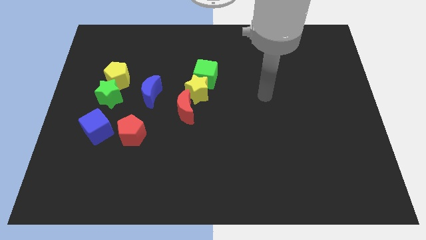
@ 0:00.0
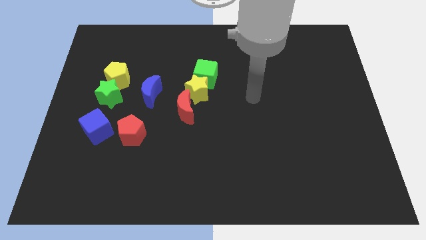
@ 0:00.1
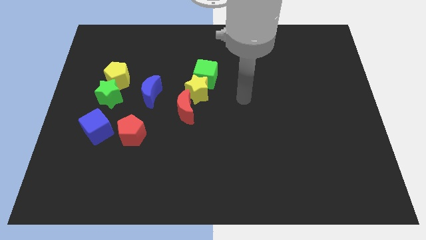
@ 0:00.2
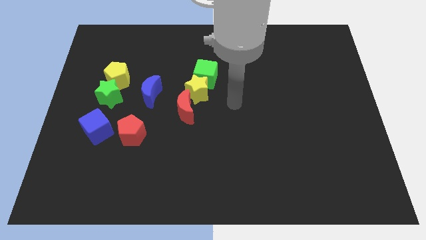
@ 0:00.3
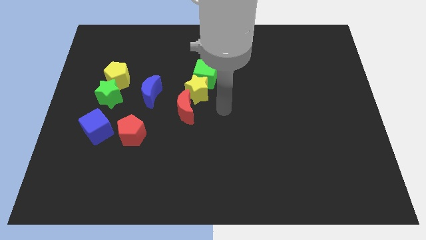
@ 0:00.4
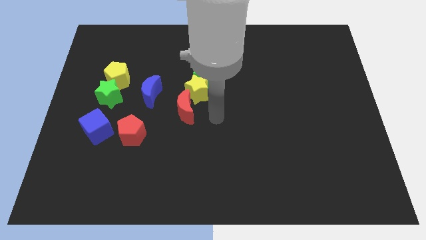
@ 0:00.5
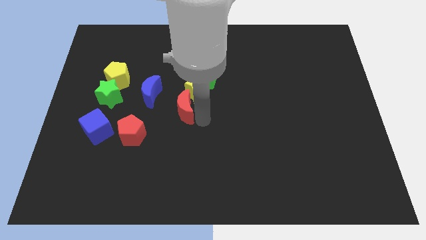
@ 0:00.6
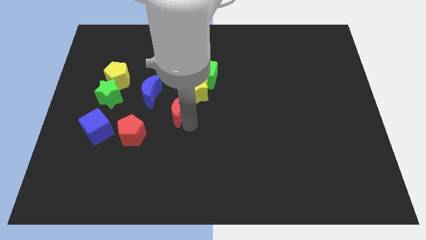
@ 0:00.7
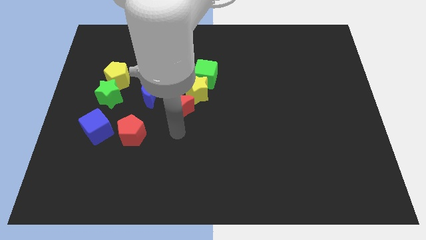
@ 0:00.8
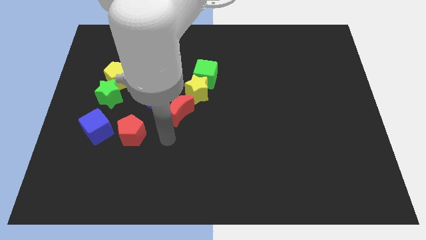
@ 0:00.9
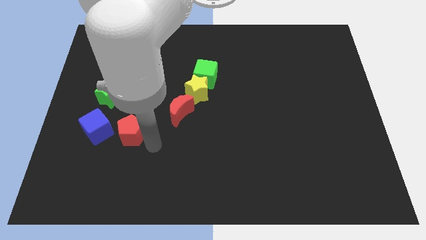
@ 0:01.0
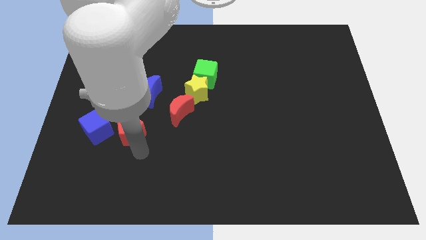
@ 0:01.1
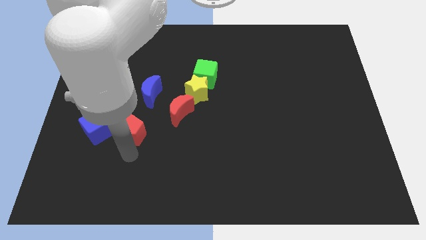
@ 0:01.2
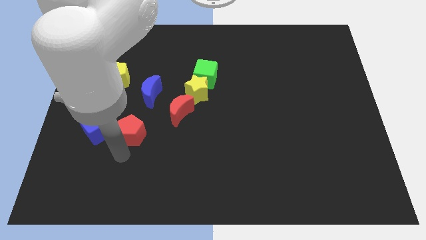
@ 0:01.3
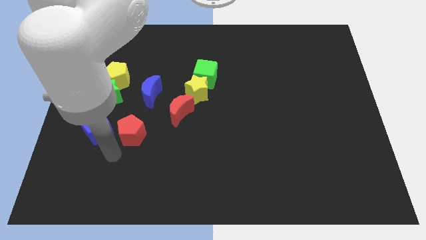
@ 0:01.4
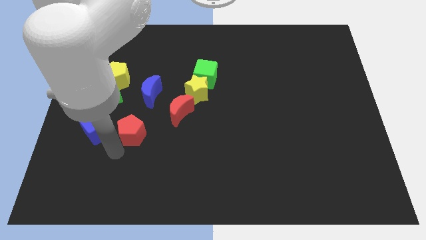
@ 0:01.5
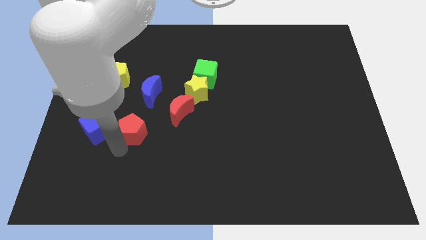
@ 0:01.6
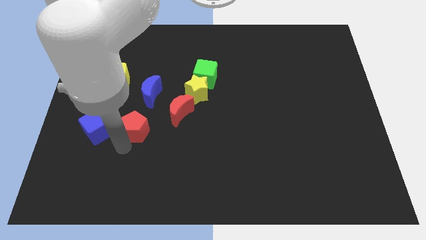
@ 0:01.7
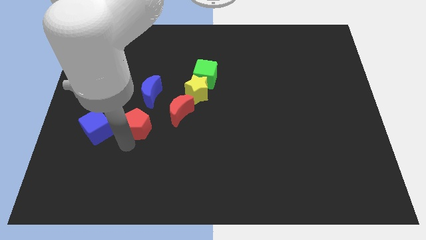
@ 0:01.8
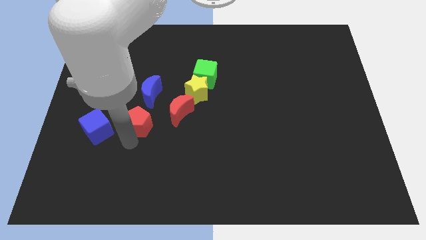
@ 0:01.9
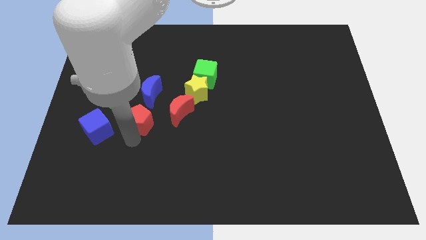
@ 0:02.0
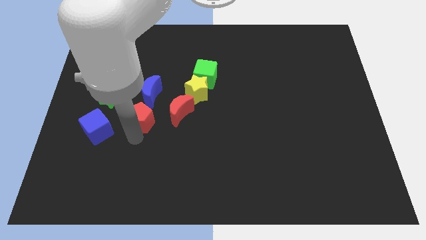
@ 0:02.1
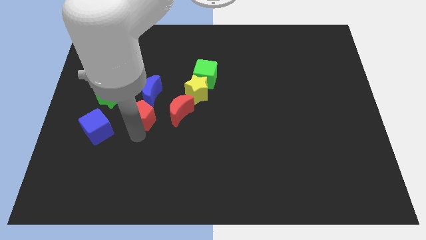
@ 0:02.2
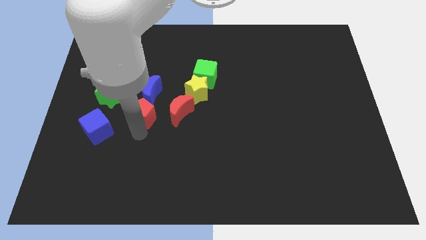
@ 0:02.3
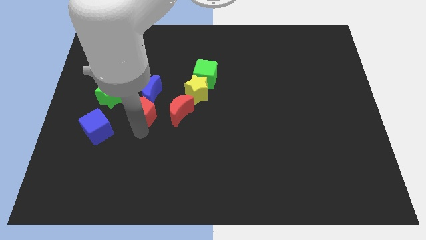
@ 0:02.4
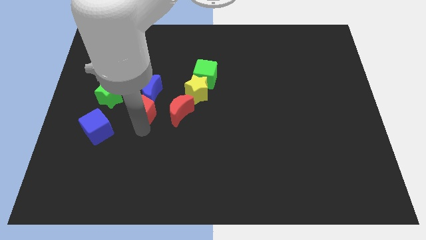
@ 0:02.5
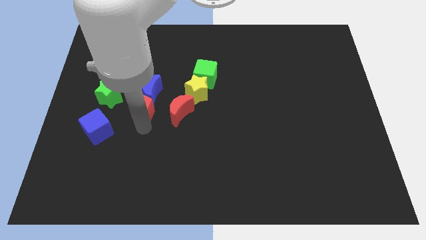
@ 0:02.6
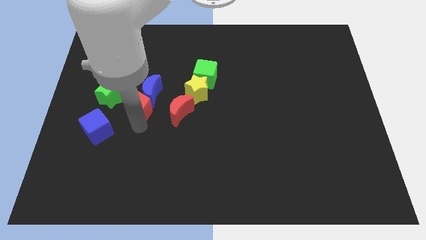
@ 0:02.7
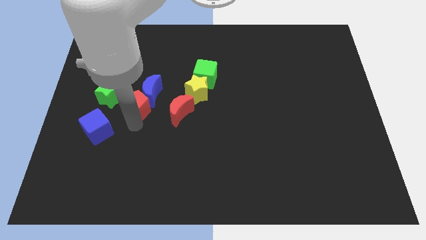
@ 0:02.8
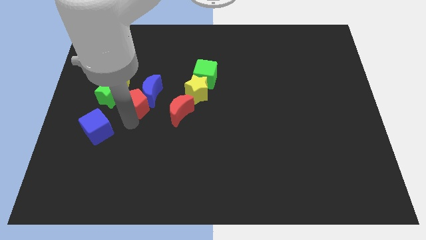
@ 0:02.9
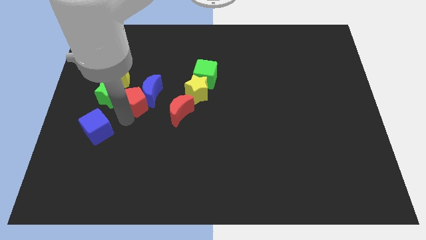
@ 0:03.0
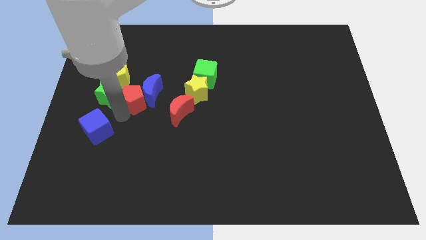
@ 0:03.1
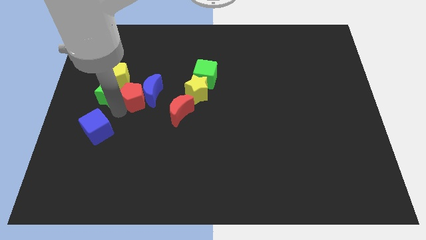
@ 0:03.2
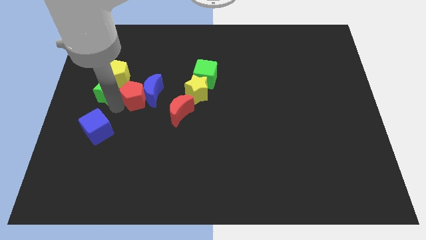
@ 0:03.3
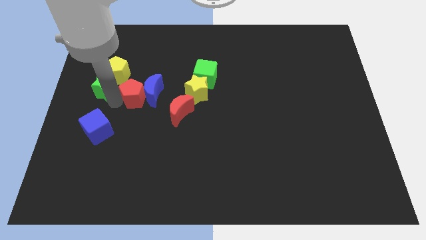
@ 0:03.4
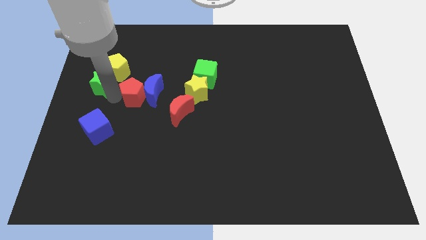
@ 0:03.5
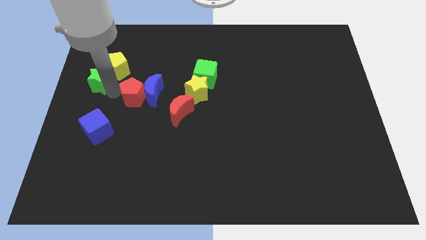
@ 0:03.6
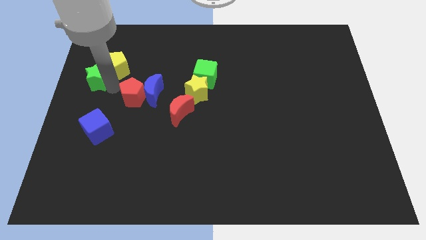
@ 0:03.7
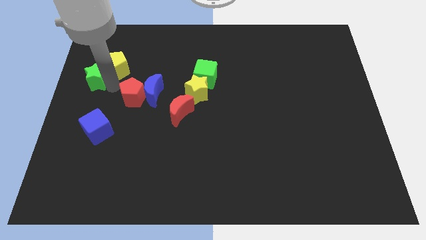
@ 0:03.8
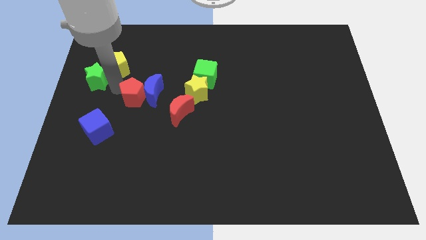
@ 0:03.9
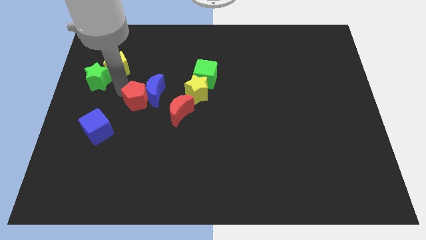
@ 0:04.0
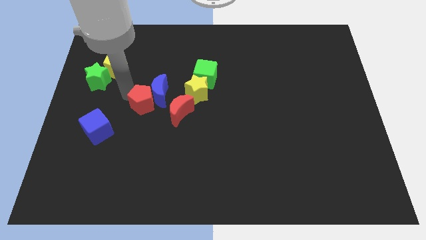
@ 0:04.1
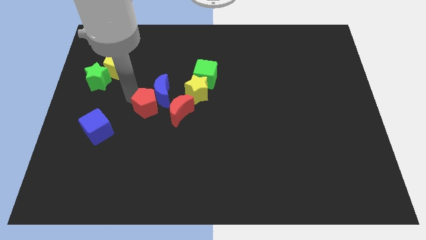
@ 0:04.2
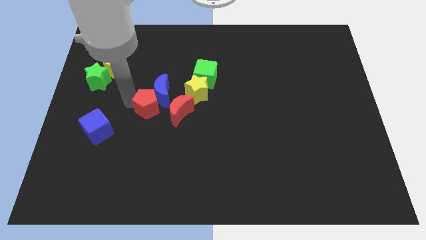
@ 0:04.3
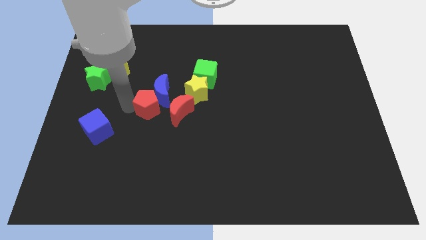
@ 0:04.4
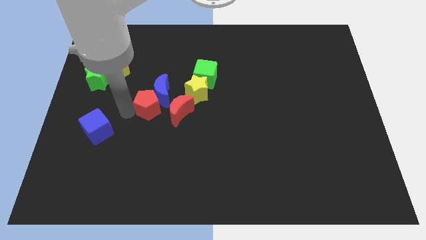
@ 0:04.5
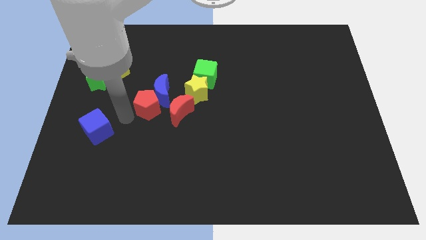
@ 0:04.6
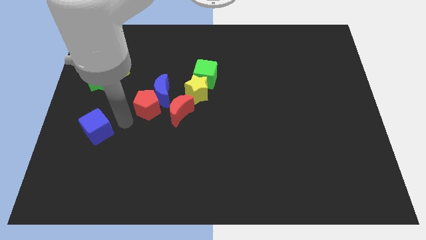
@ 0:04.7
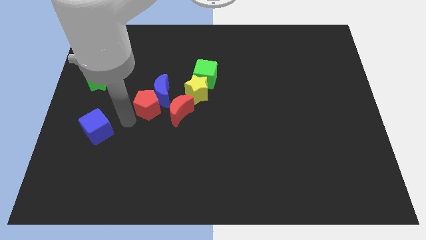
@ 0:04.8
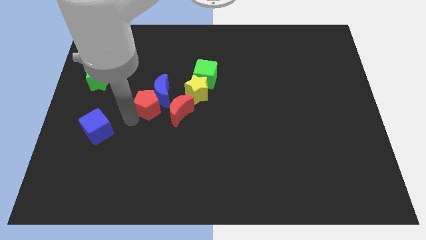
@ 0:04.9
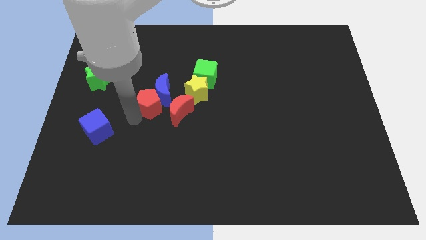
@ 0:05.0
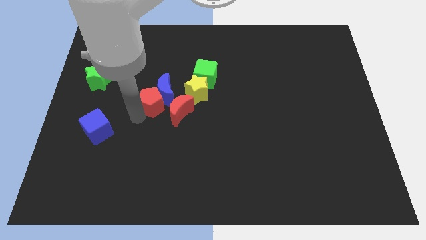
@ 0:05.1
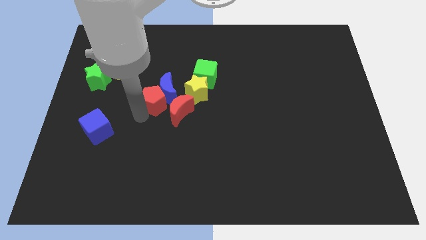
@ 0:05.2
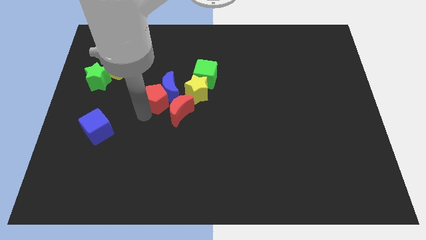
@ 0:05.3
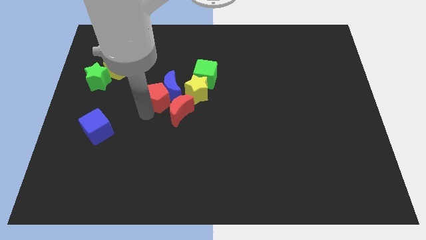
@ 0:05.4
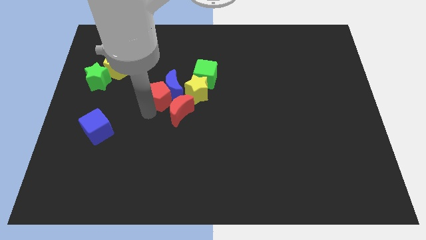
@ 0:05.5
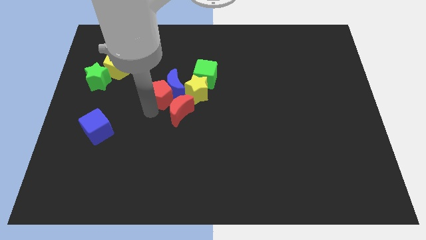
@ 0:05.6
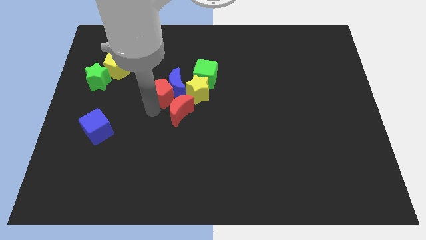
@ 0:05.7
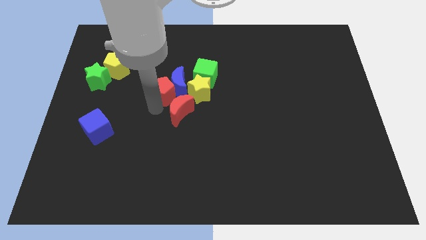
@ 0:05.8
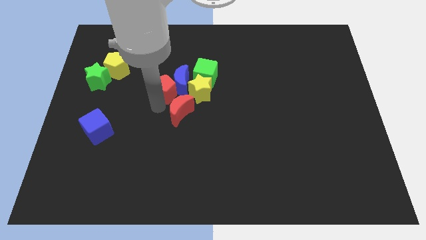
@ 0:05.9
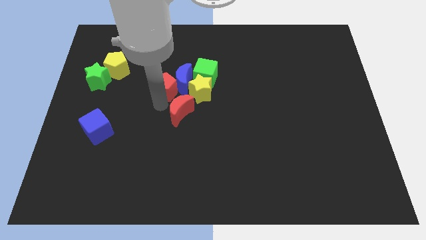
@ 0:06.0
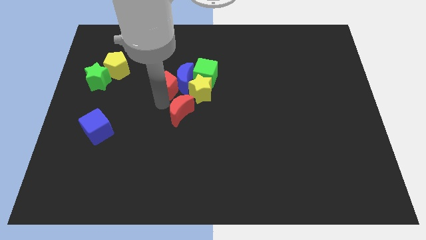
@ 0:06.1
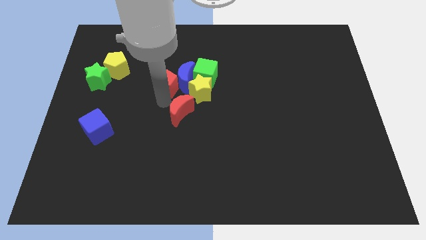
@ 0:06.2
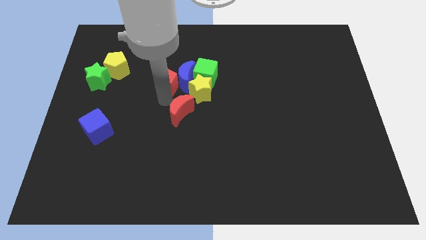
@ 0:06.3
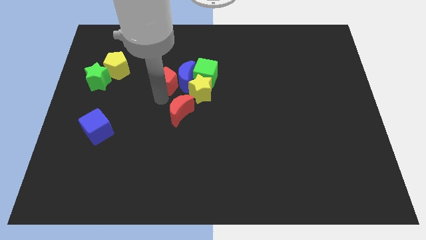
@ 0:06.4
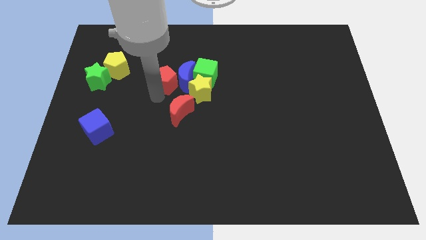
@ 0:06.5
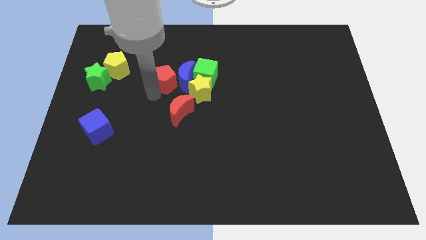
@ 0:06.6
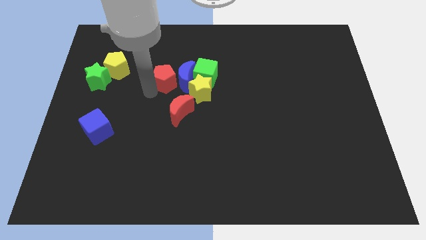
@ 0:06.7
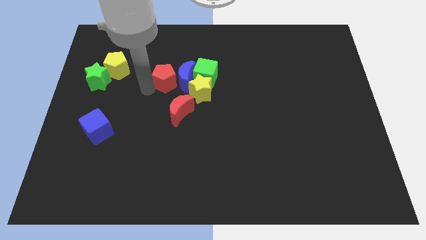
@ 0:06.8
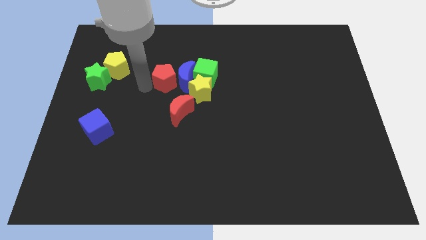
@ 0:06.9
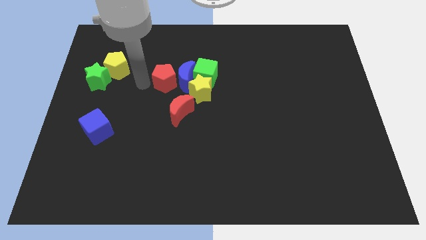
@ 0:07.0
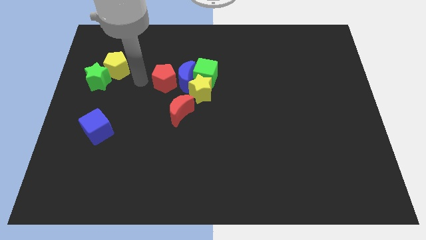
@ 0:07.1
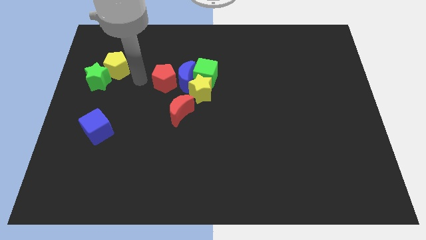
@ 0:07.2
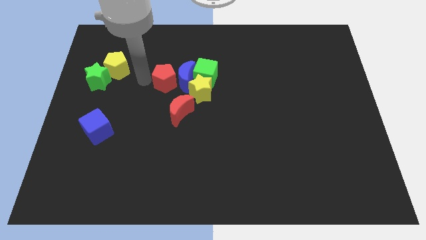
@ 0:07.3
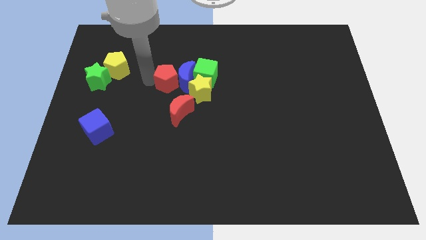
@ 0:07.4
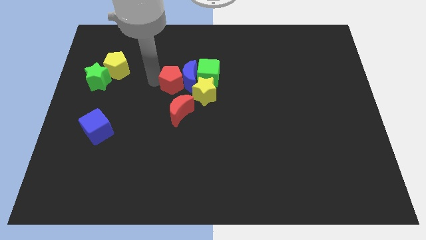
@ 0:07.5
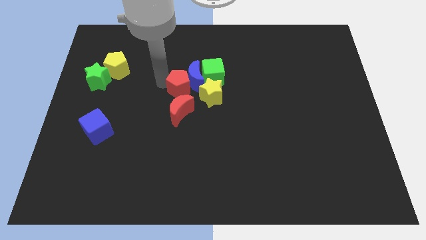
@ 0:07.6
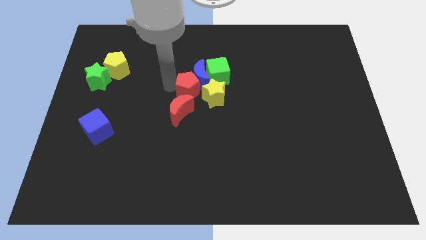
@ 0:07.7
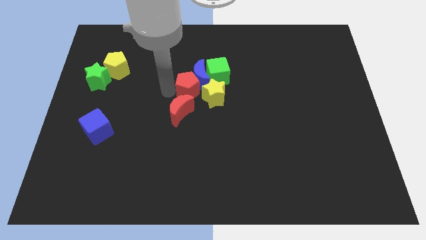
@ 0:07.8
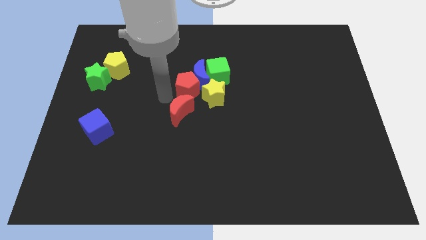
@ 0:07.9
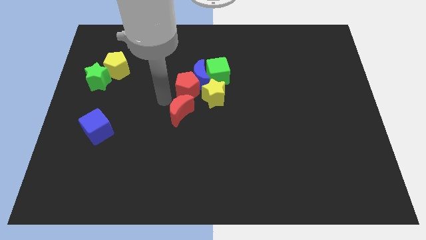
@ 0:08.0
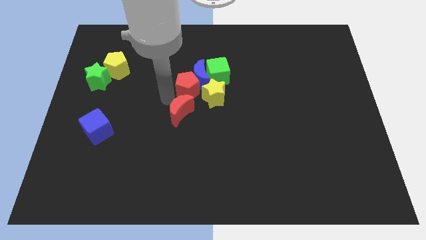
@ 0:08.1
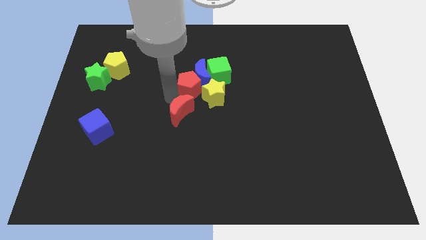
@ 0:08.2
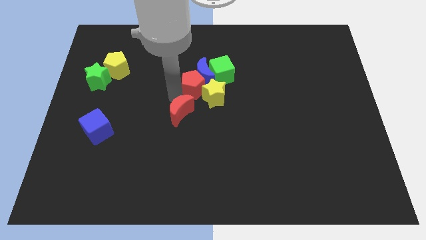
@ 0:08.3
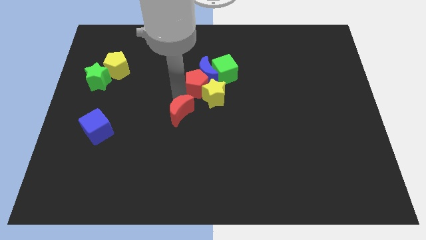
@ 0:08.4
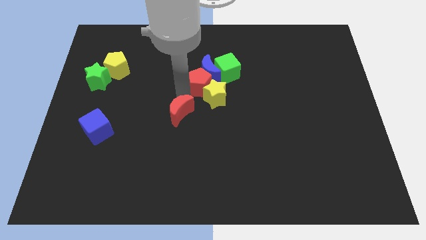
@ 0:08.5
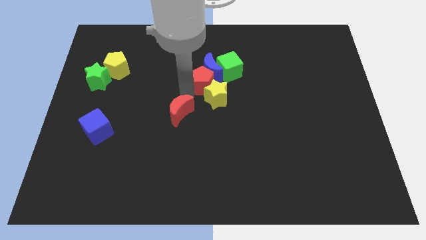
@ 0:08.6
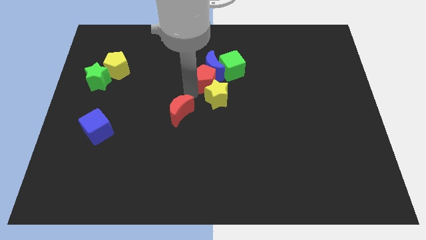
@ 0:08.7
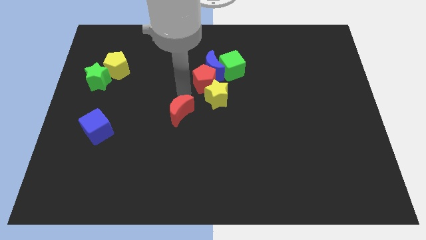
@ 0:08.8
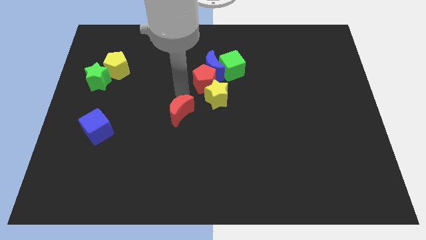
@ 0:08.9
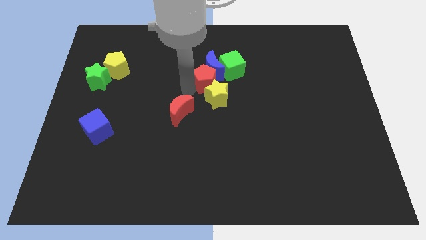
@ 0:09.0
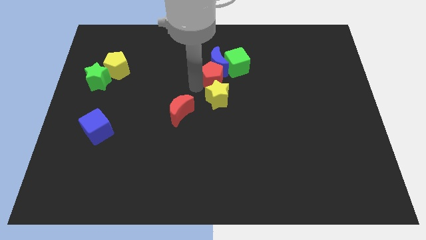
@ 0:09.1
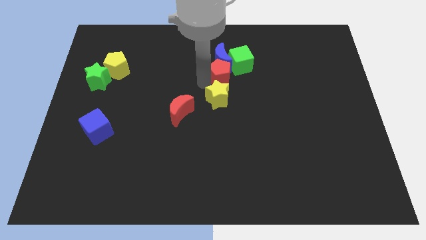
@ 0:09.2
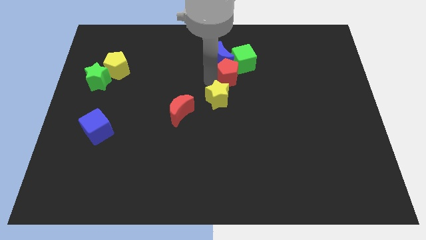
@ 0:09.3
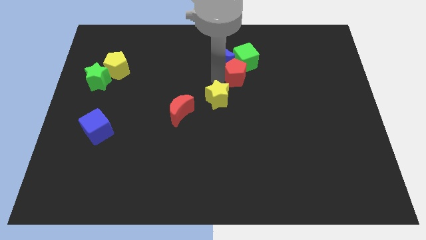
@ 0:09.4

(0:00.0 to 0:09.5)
slide the red pentagon towards the green cube
